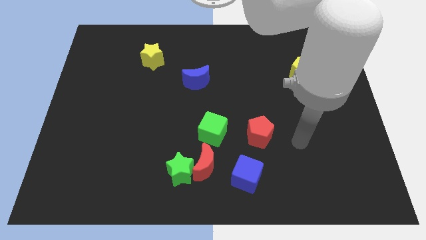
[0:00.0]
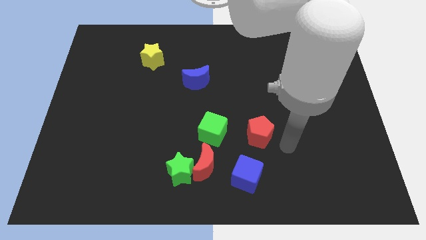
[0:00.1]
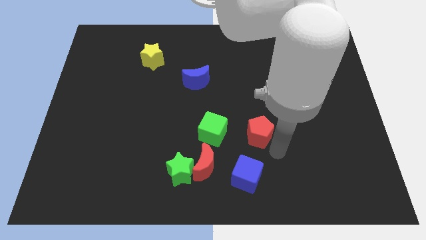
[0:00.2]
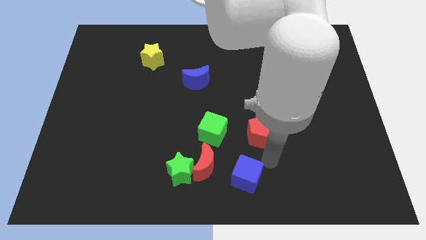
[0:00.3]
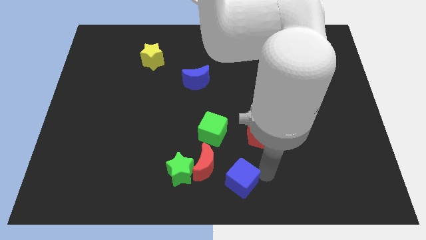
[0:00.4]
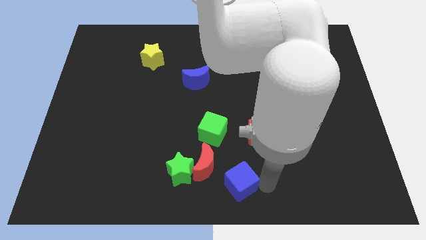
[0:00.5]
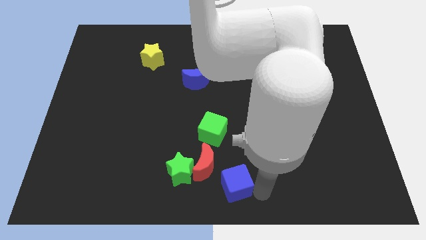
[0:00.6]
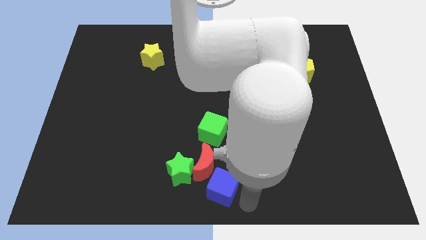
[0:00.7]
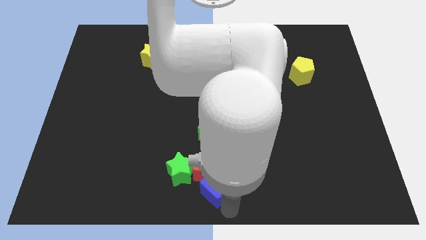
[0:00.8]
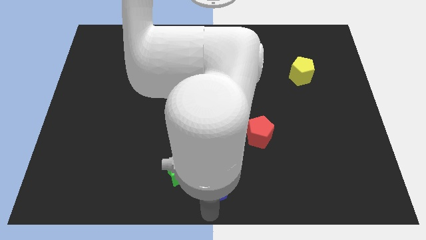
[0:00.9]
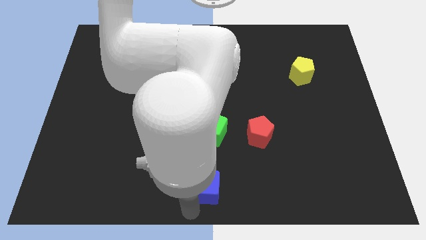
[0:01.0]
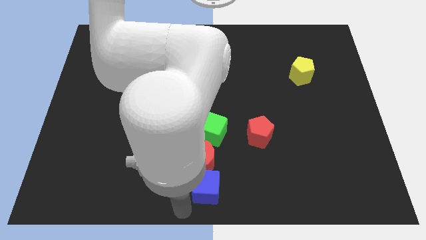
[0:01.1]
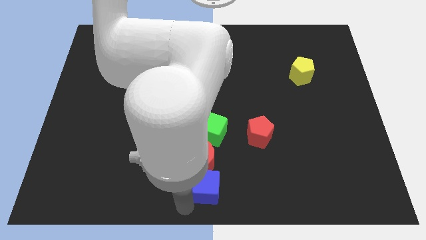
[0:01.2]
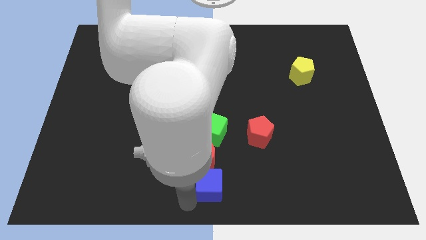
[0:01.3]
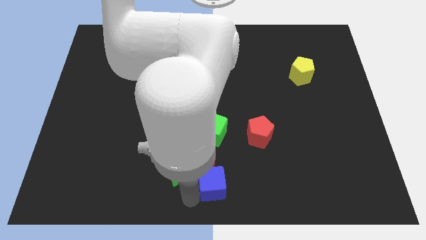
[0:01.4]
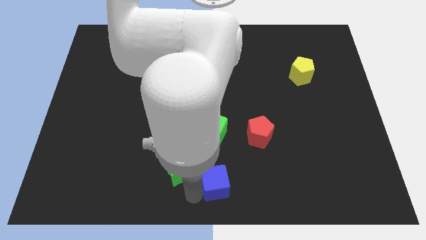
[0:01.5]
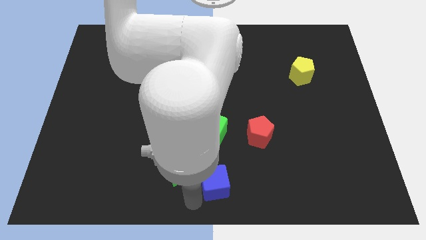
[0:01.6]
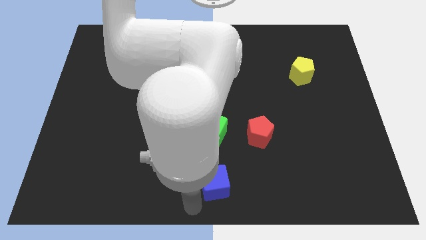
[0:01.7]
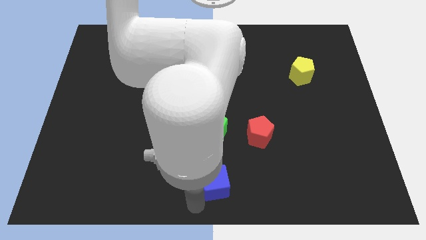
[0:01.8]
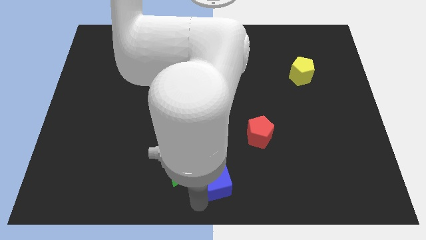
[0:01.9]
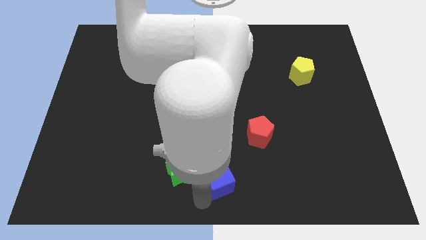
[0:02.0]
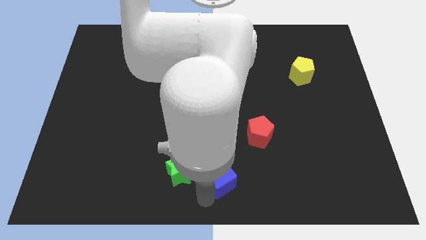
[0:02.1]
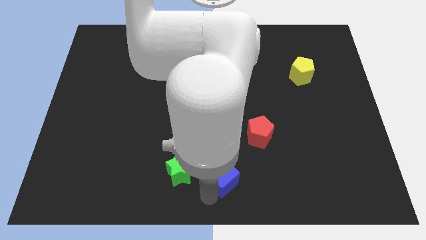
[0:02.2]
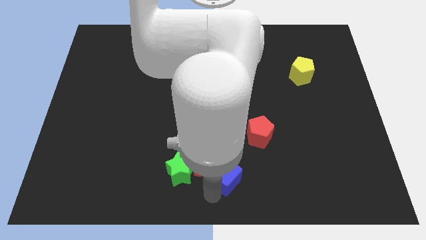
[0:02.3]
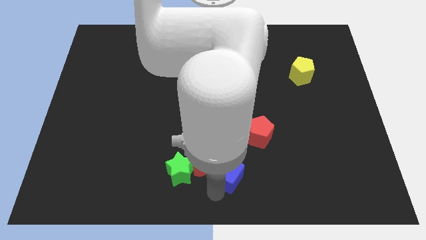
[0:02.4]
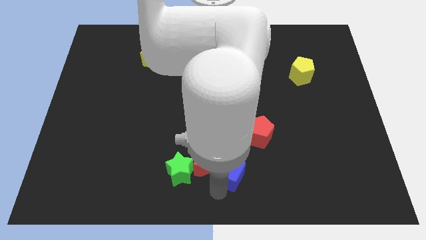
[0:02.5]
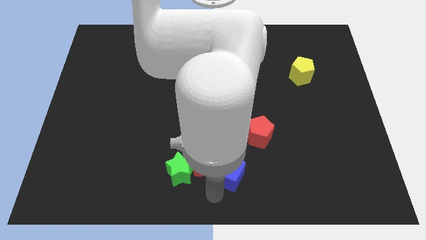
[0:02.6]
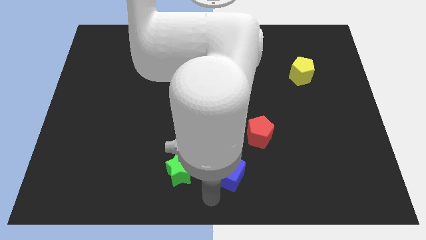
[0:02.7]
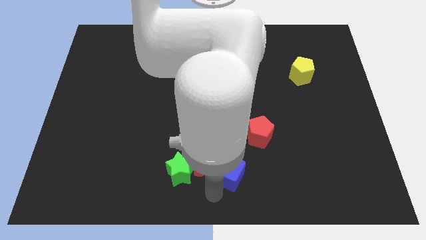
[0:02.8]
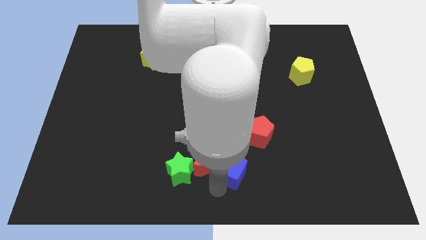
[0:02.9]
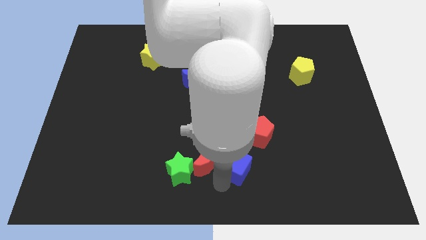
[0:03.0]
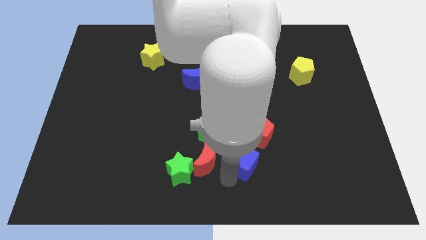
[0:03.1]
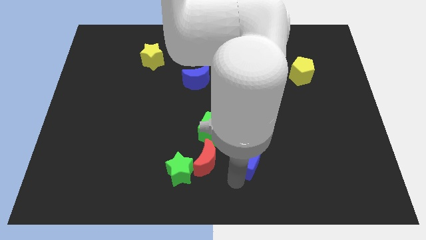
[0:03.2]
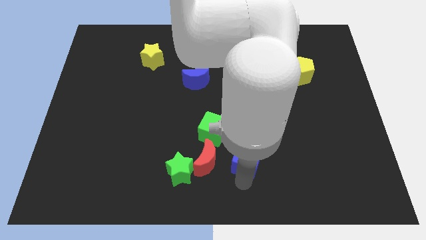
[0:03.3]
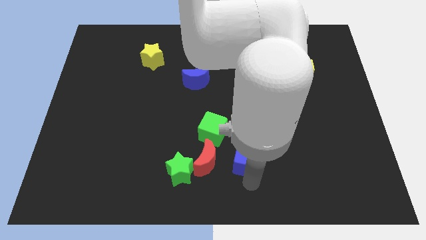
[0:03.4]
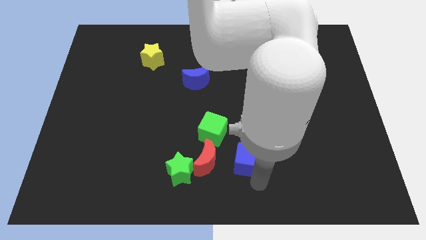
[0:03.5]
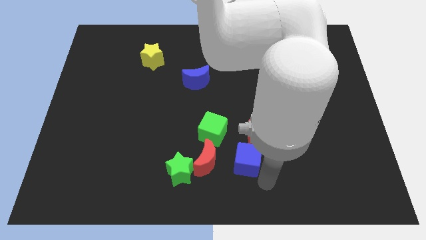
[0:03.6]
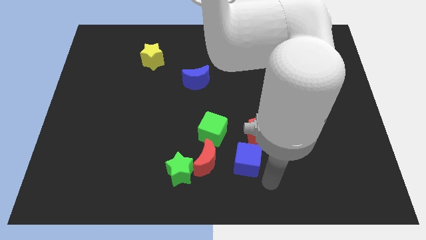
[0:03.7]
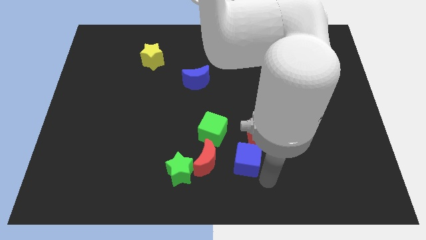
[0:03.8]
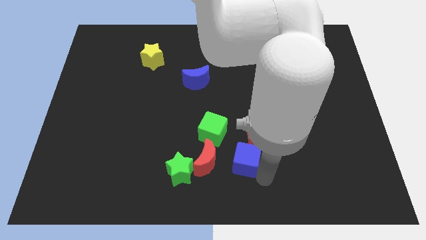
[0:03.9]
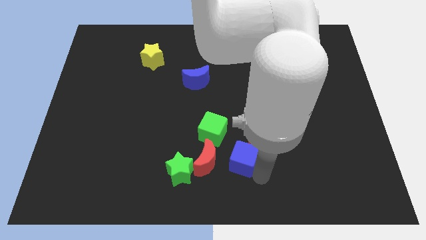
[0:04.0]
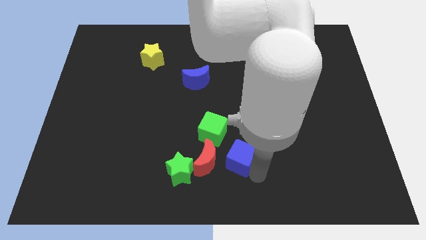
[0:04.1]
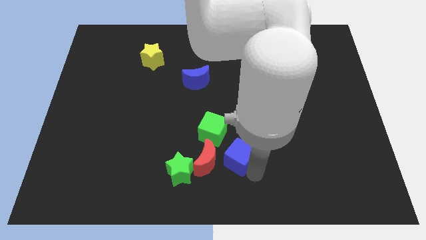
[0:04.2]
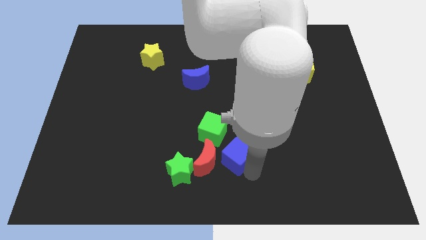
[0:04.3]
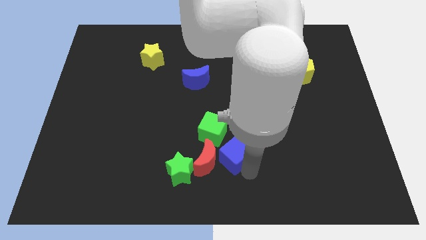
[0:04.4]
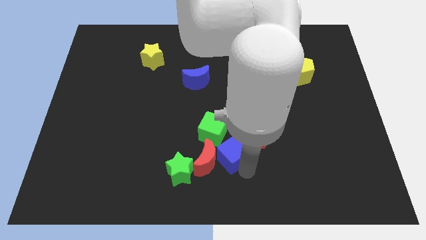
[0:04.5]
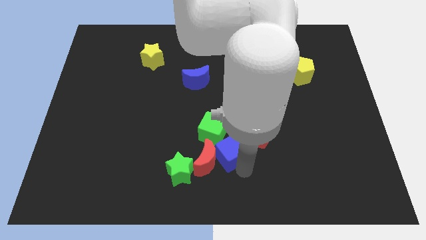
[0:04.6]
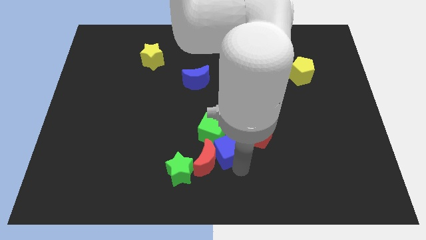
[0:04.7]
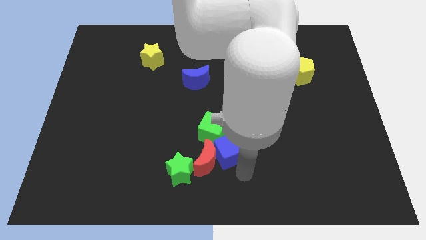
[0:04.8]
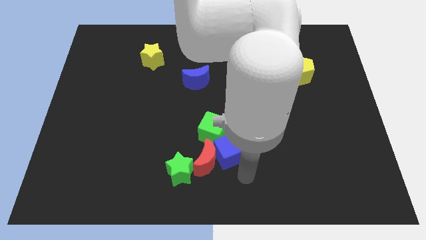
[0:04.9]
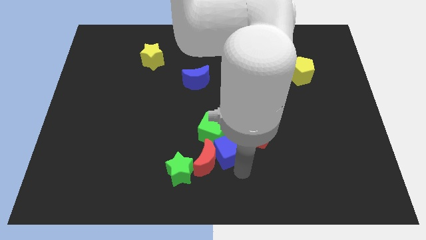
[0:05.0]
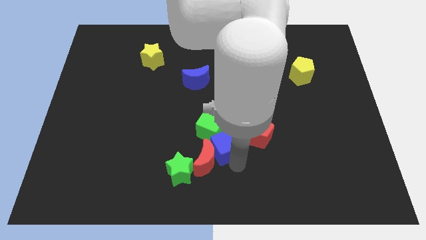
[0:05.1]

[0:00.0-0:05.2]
put the blue cube towards the green cube

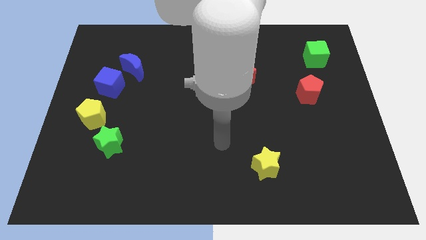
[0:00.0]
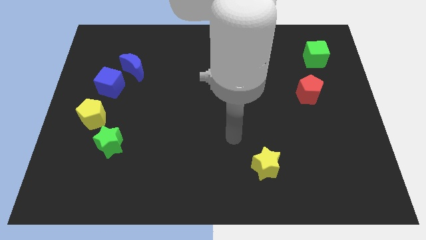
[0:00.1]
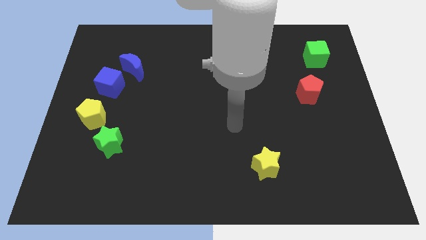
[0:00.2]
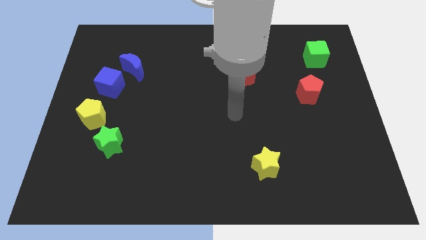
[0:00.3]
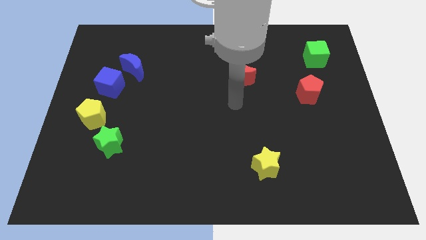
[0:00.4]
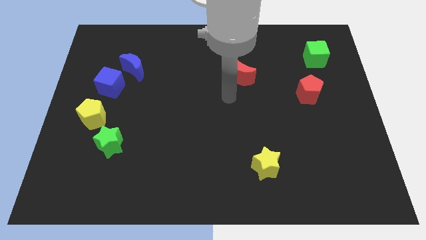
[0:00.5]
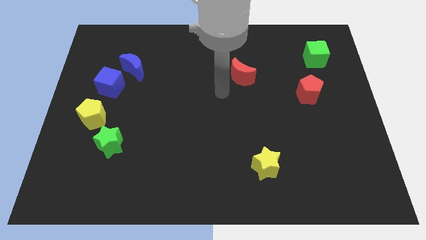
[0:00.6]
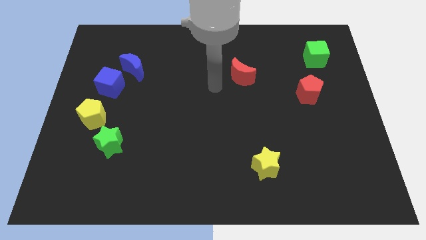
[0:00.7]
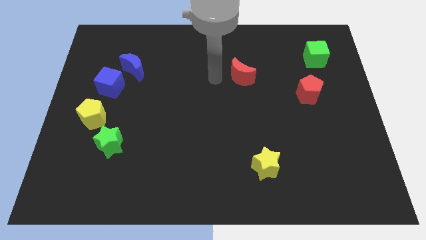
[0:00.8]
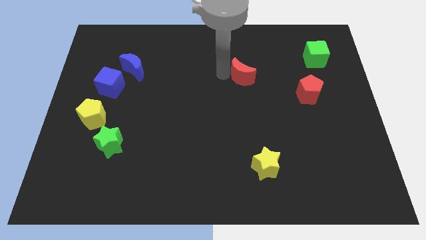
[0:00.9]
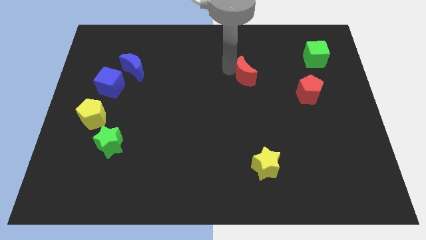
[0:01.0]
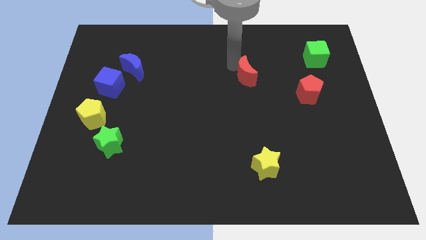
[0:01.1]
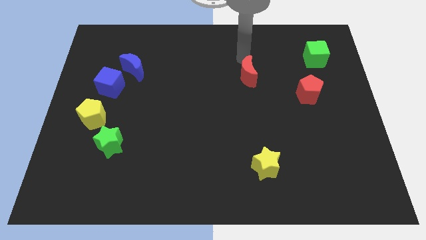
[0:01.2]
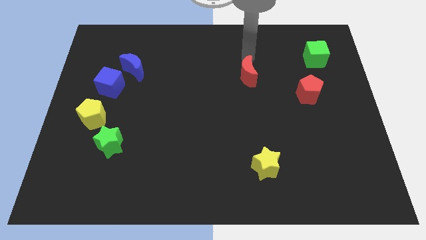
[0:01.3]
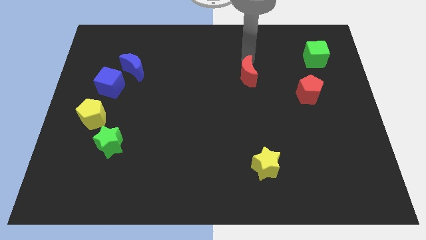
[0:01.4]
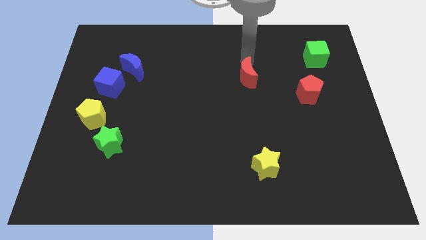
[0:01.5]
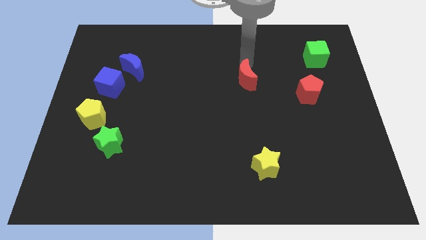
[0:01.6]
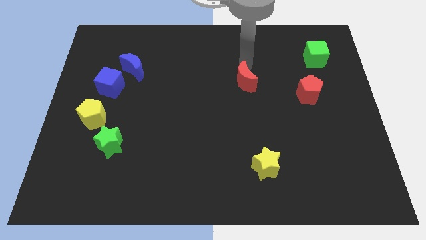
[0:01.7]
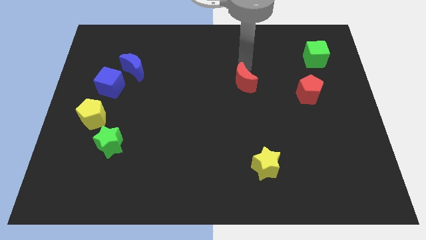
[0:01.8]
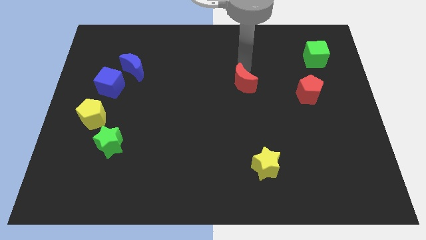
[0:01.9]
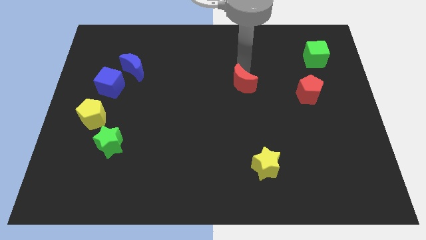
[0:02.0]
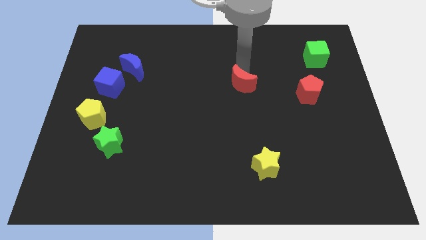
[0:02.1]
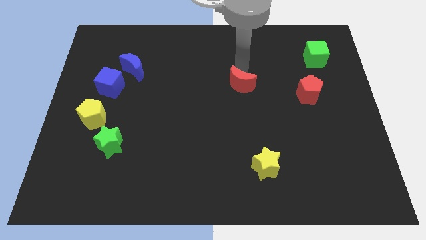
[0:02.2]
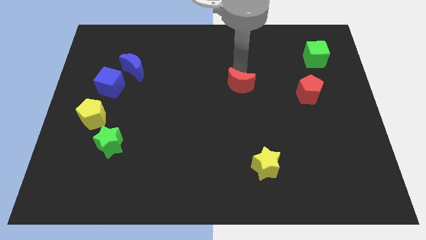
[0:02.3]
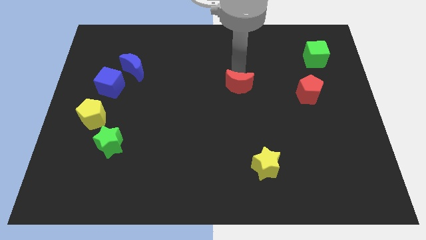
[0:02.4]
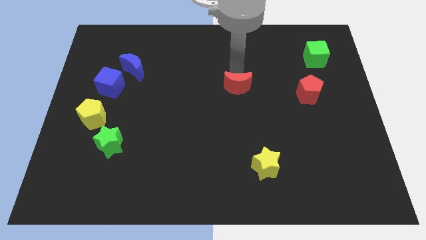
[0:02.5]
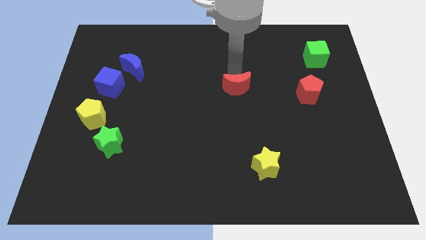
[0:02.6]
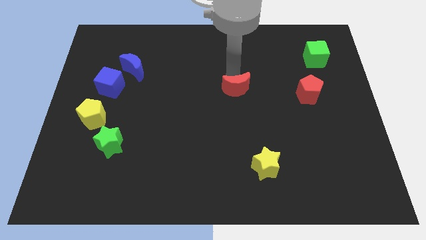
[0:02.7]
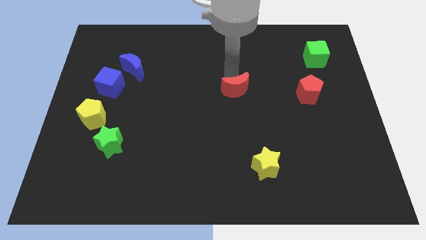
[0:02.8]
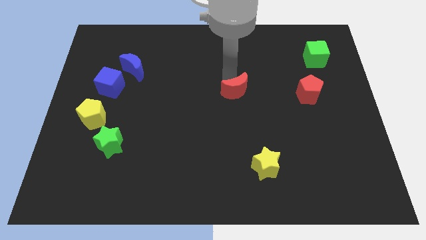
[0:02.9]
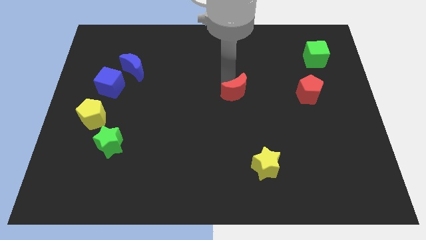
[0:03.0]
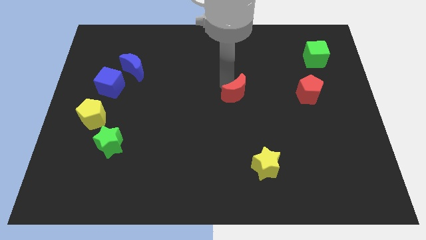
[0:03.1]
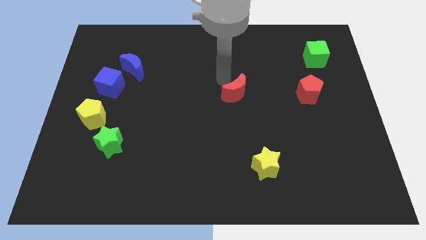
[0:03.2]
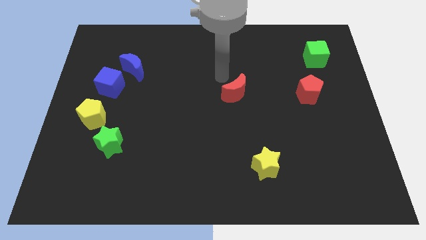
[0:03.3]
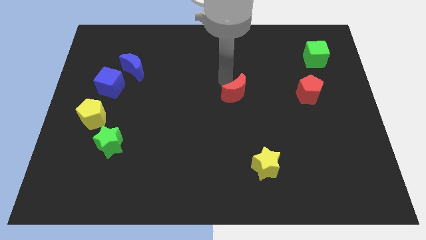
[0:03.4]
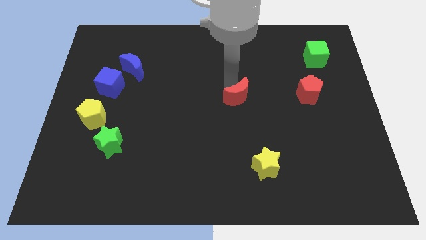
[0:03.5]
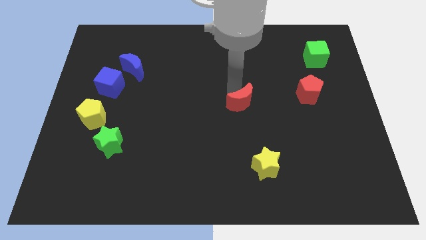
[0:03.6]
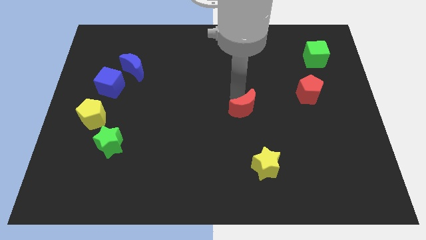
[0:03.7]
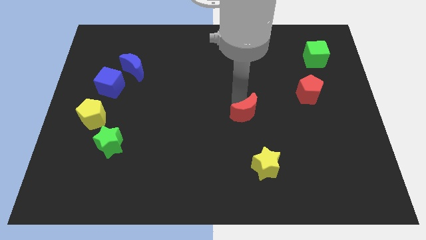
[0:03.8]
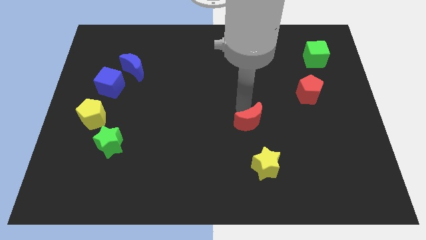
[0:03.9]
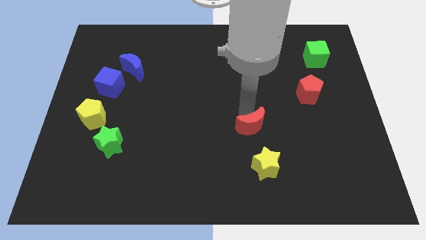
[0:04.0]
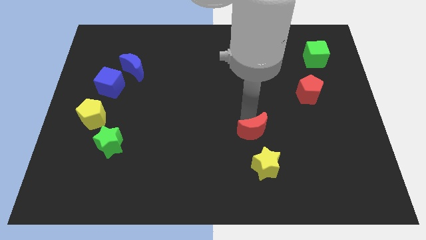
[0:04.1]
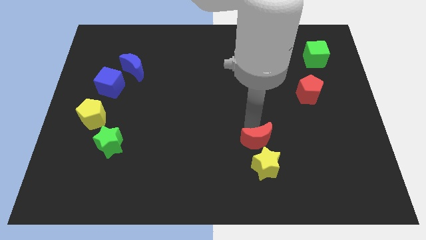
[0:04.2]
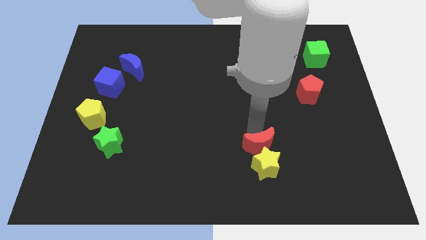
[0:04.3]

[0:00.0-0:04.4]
move the red moon next to the yellow star
